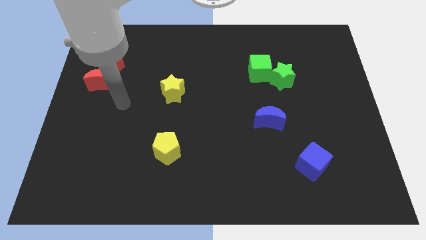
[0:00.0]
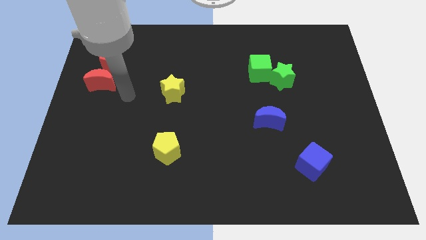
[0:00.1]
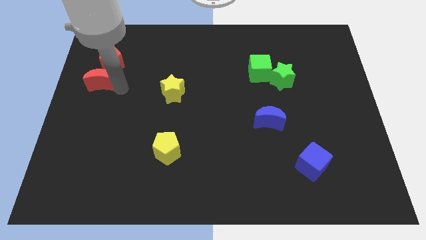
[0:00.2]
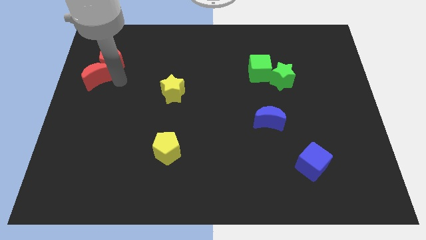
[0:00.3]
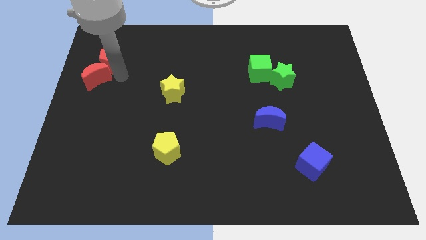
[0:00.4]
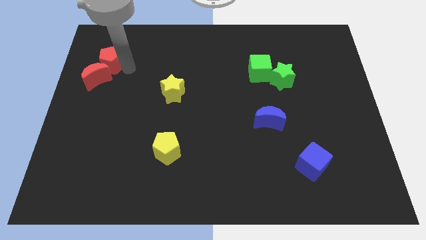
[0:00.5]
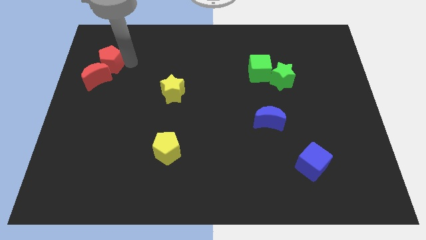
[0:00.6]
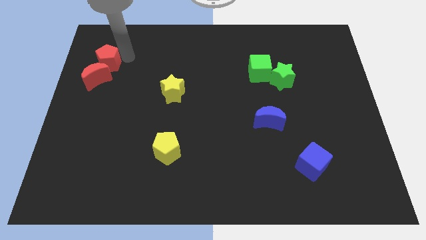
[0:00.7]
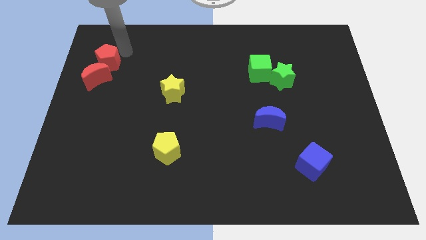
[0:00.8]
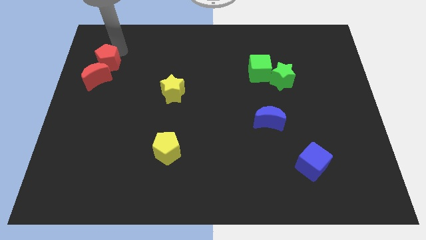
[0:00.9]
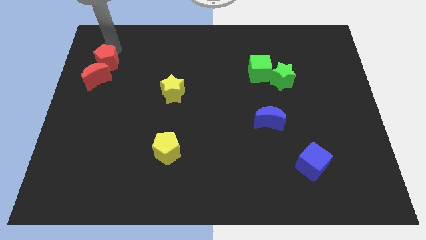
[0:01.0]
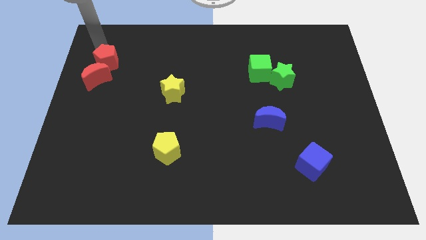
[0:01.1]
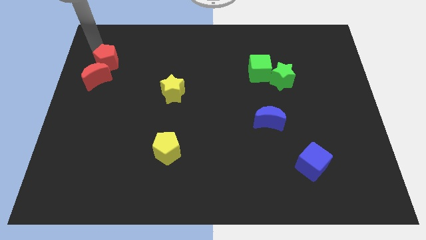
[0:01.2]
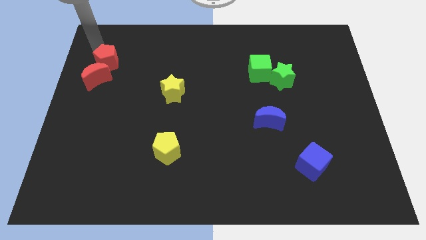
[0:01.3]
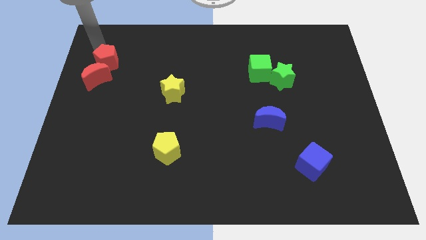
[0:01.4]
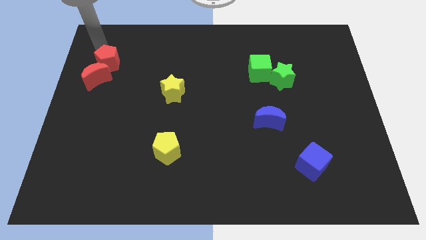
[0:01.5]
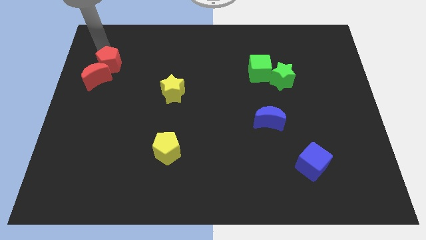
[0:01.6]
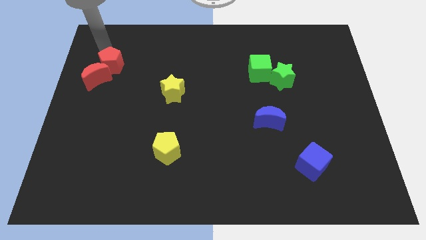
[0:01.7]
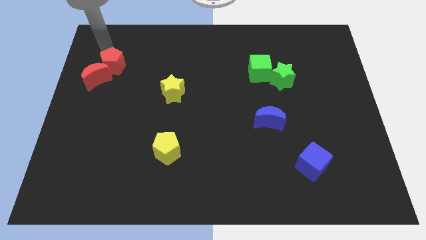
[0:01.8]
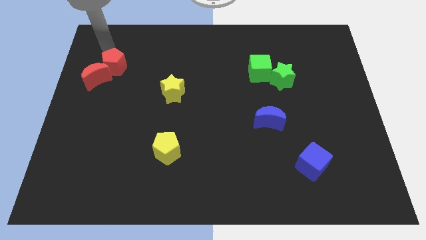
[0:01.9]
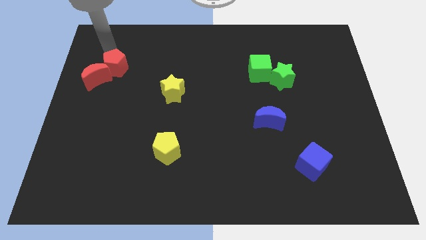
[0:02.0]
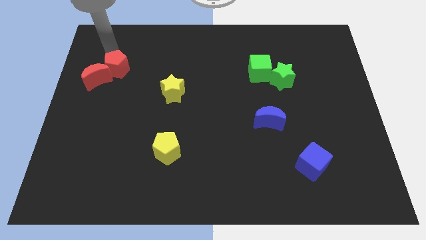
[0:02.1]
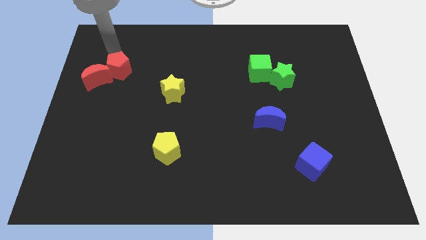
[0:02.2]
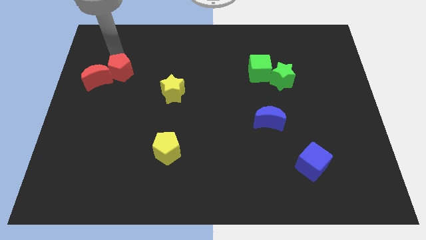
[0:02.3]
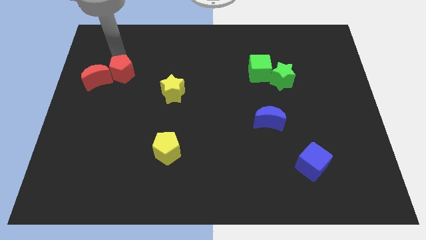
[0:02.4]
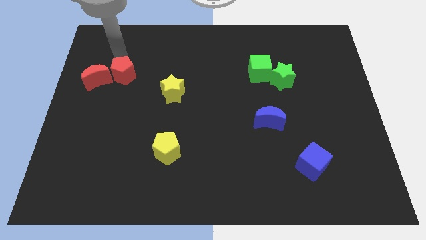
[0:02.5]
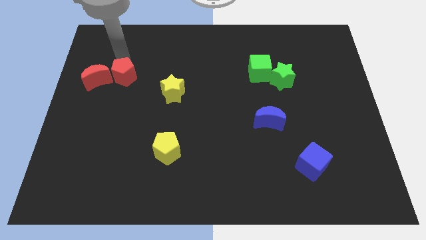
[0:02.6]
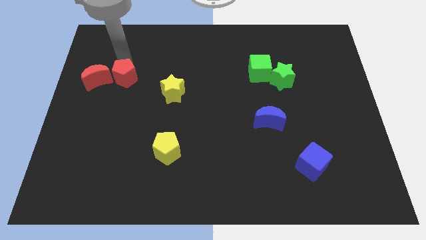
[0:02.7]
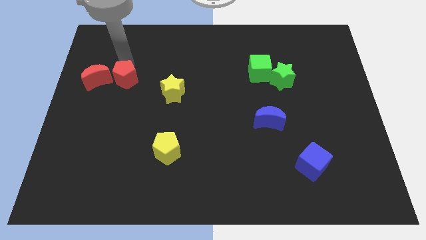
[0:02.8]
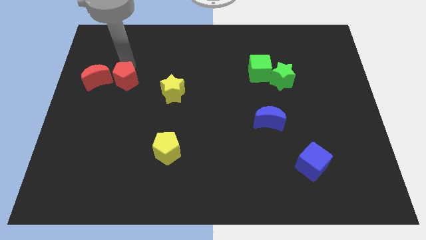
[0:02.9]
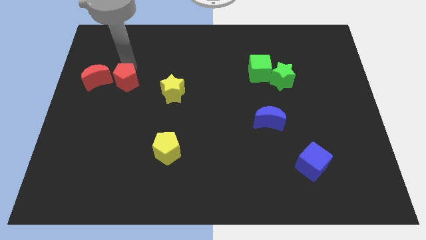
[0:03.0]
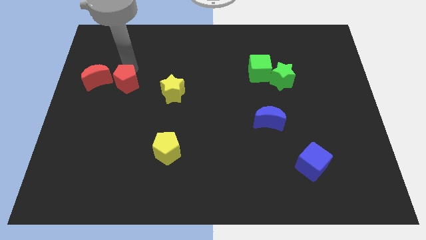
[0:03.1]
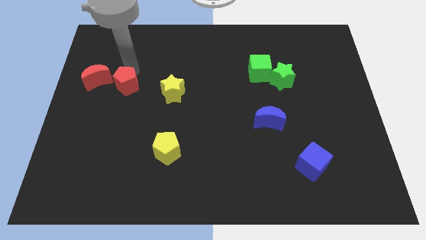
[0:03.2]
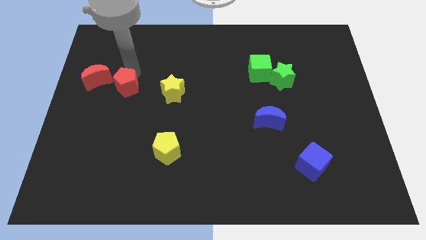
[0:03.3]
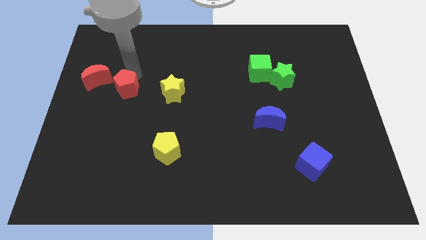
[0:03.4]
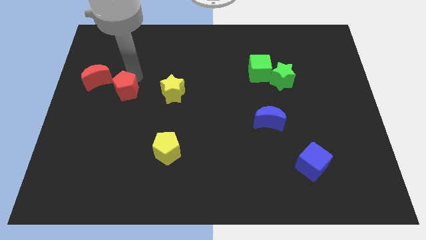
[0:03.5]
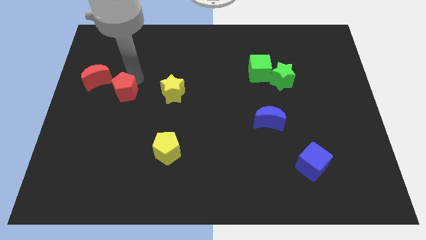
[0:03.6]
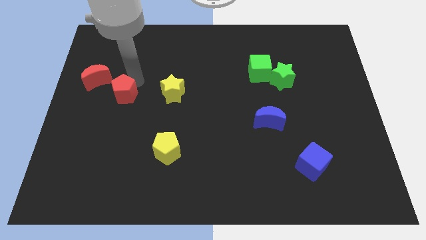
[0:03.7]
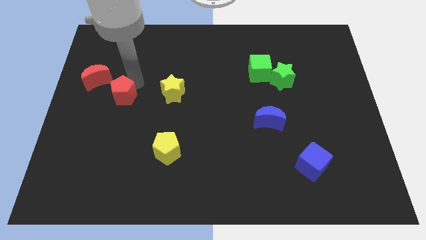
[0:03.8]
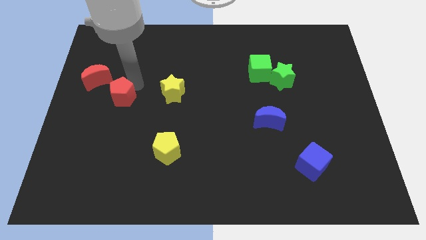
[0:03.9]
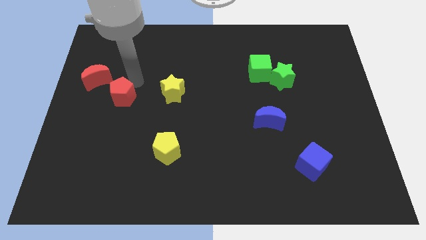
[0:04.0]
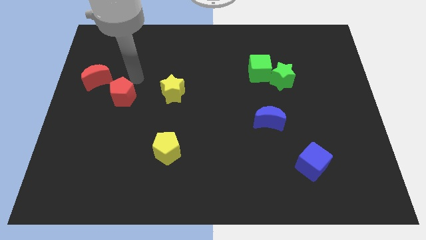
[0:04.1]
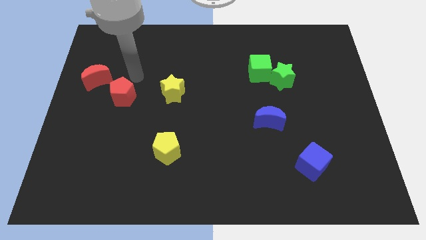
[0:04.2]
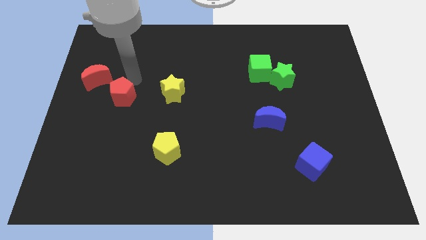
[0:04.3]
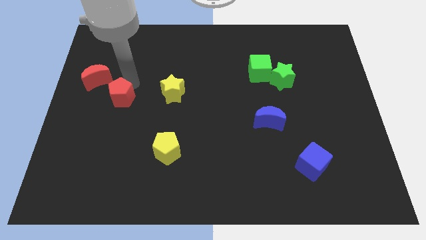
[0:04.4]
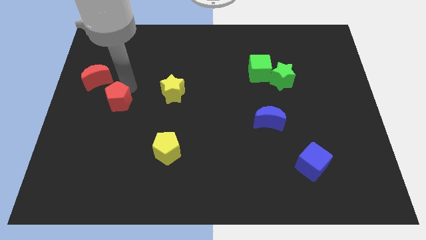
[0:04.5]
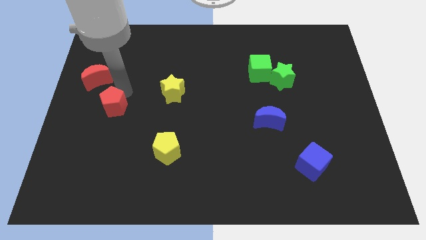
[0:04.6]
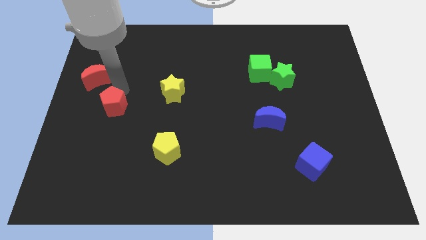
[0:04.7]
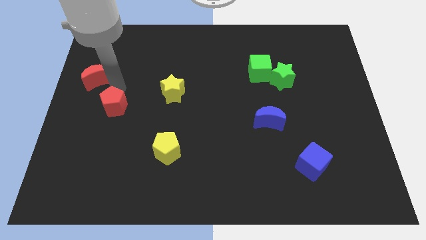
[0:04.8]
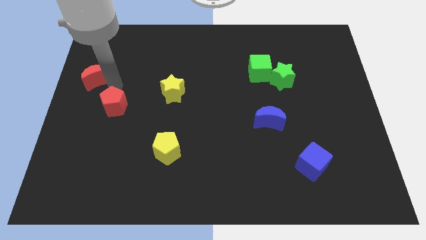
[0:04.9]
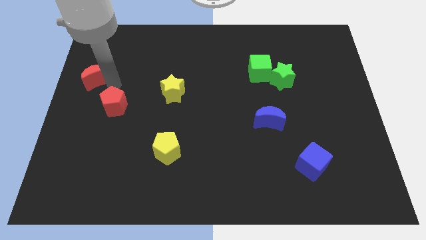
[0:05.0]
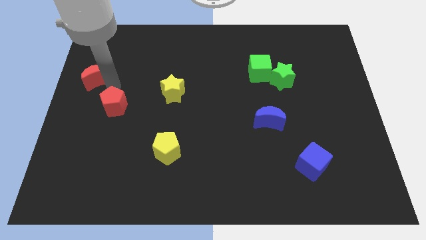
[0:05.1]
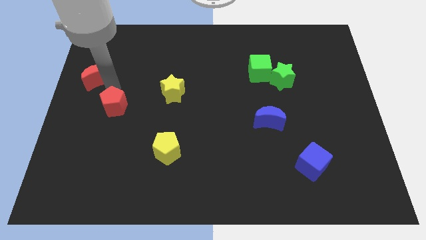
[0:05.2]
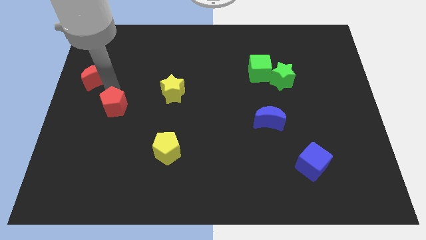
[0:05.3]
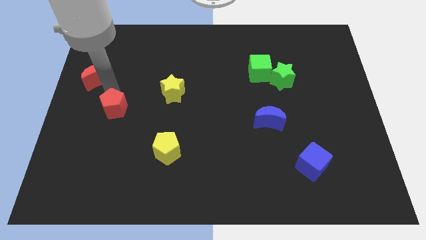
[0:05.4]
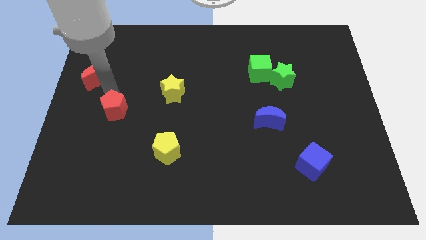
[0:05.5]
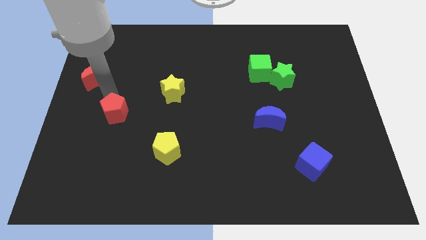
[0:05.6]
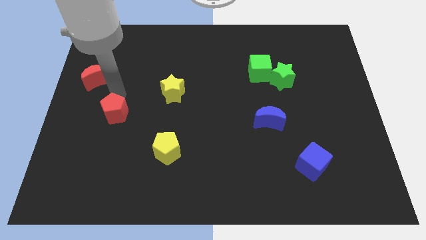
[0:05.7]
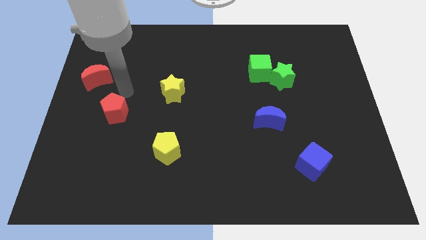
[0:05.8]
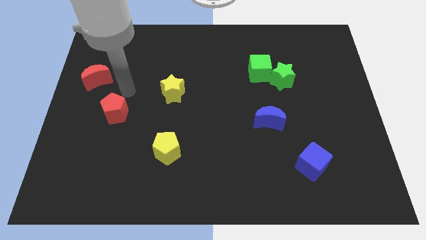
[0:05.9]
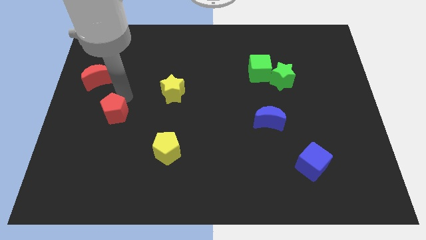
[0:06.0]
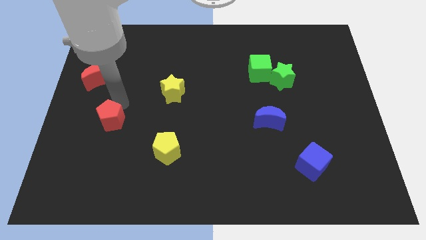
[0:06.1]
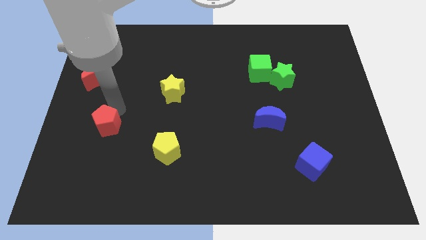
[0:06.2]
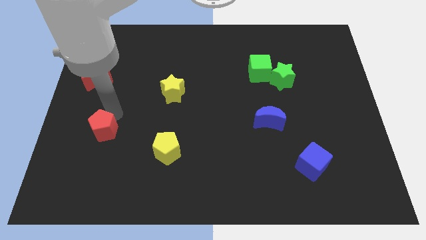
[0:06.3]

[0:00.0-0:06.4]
move the red pentagon downwards

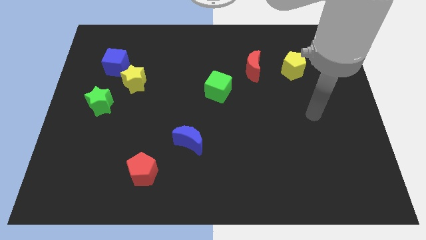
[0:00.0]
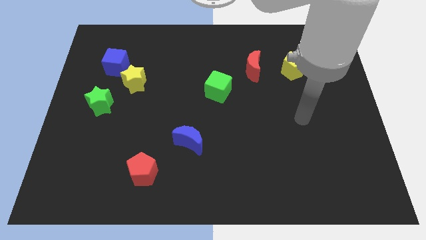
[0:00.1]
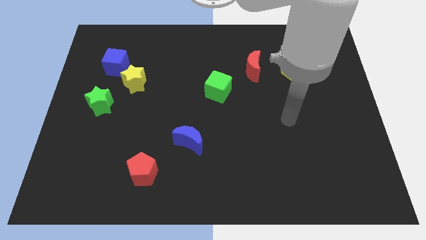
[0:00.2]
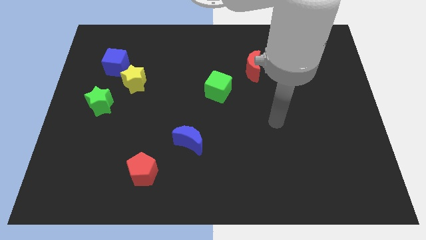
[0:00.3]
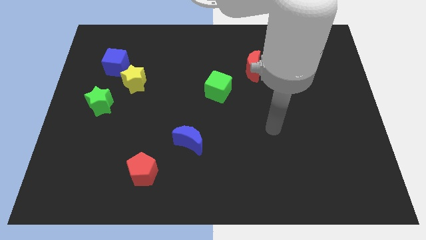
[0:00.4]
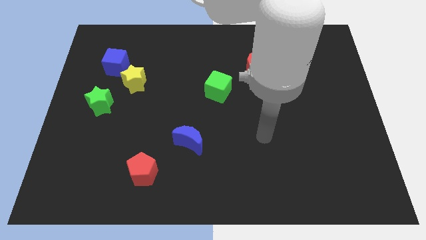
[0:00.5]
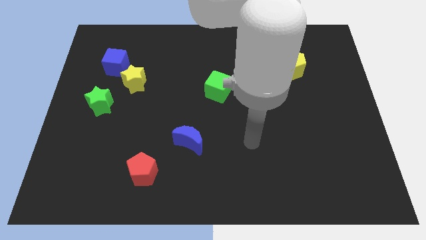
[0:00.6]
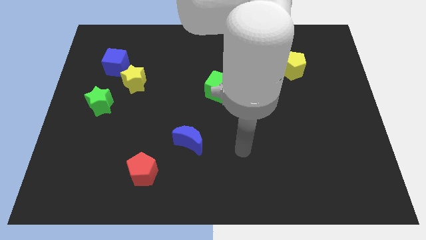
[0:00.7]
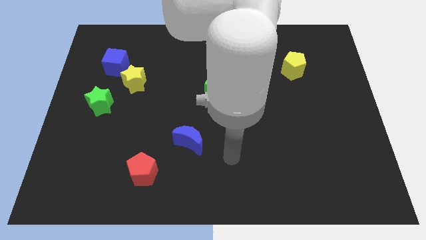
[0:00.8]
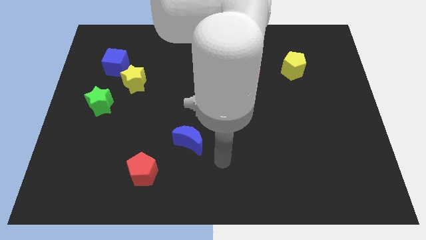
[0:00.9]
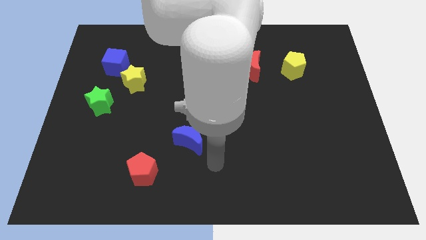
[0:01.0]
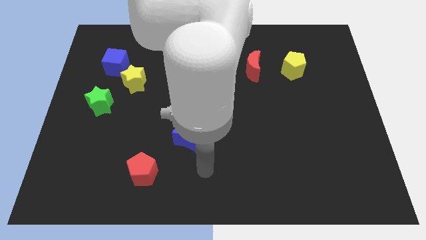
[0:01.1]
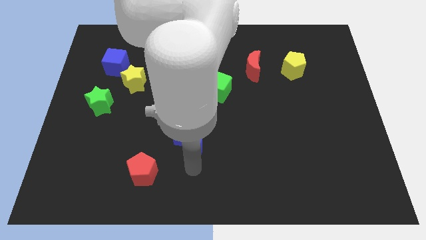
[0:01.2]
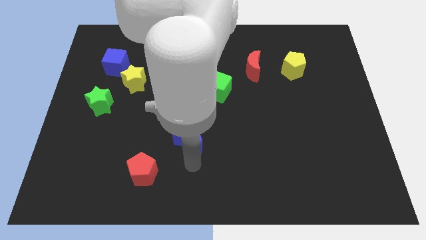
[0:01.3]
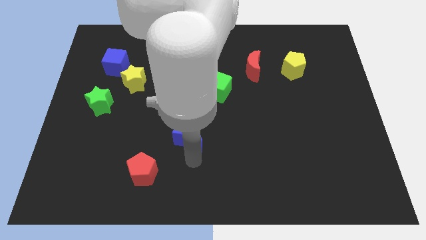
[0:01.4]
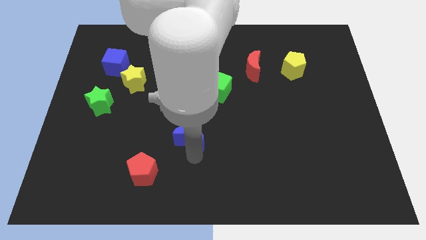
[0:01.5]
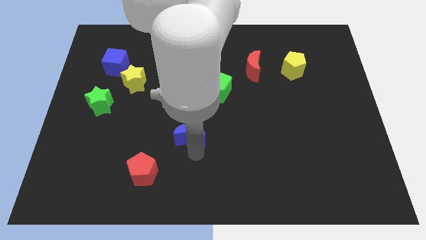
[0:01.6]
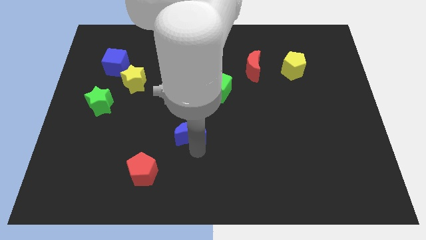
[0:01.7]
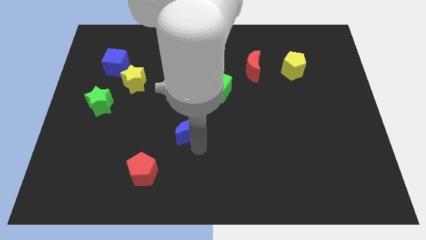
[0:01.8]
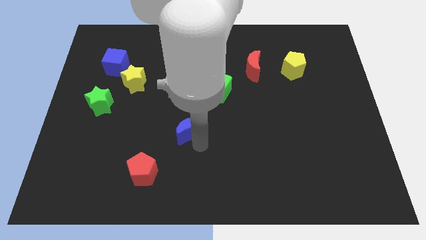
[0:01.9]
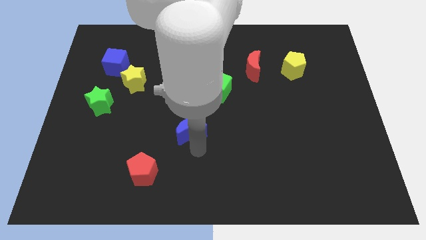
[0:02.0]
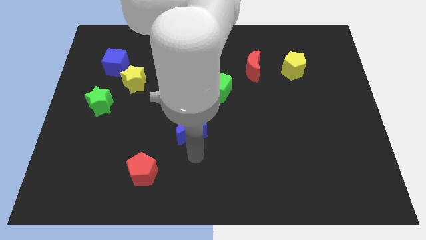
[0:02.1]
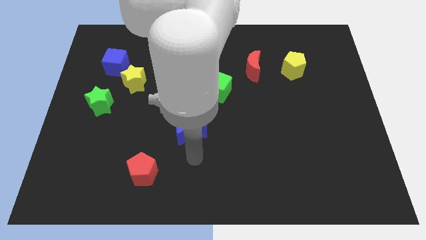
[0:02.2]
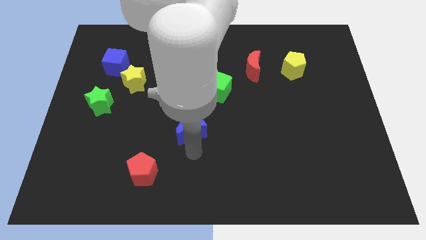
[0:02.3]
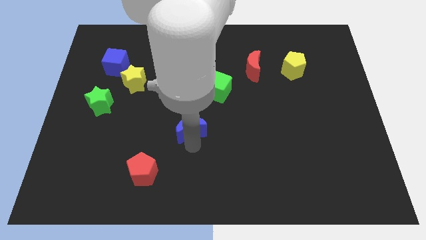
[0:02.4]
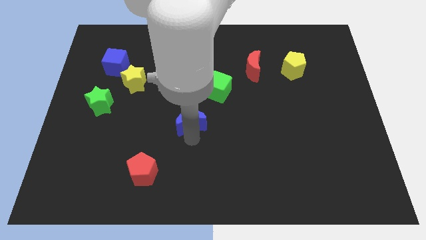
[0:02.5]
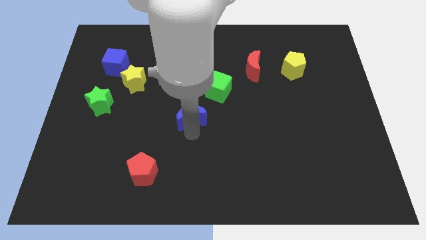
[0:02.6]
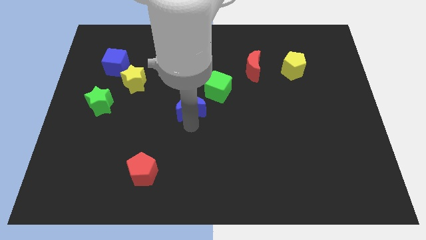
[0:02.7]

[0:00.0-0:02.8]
slide the blue moon somewhat upwards
